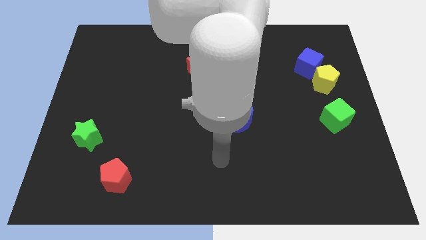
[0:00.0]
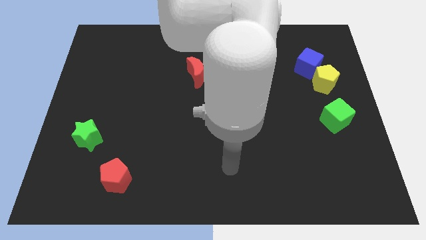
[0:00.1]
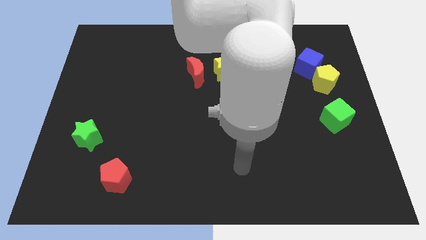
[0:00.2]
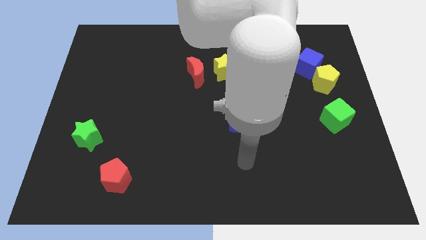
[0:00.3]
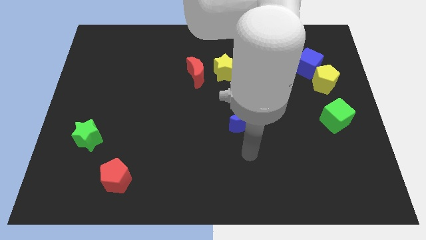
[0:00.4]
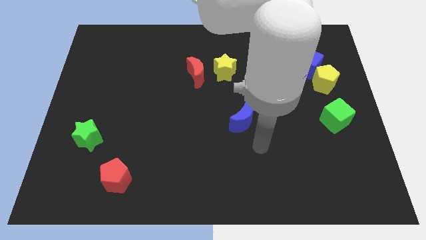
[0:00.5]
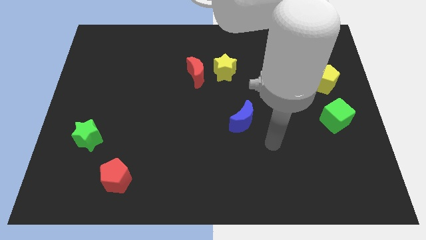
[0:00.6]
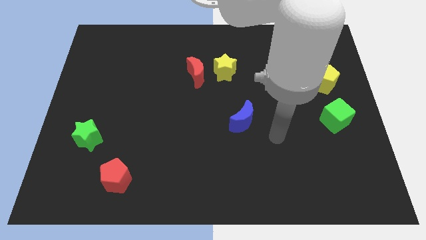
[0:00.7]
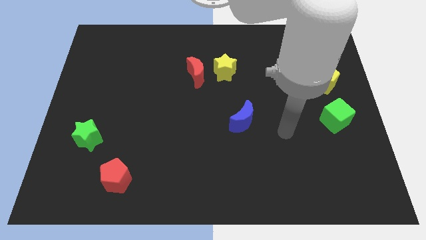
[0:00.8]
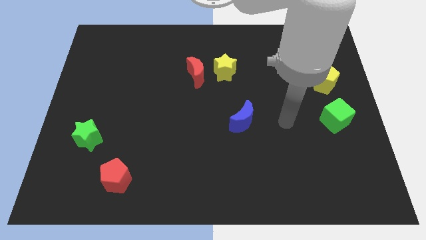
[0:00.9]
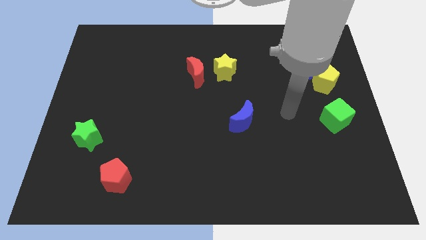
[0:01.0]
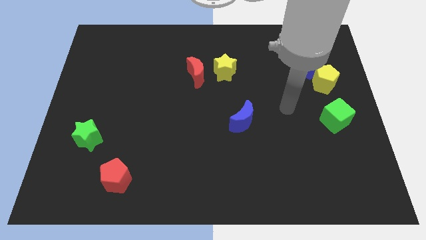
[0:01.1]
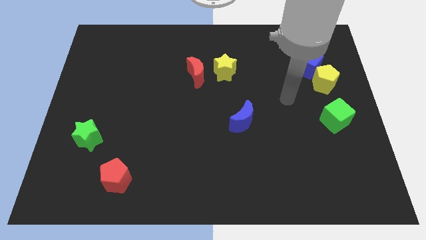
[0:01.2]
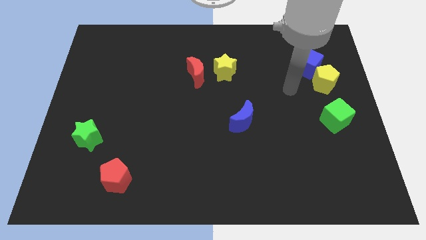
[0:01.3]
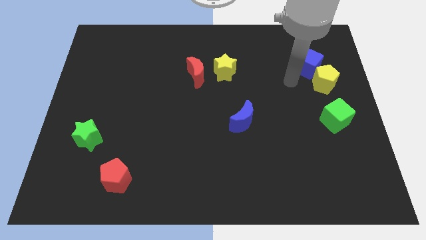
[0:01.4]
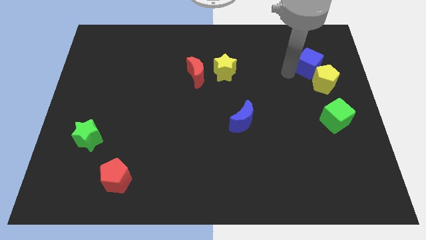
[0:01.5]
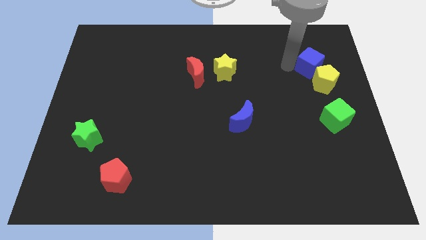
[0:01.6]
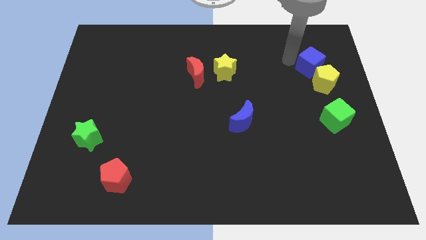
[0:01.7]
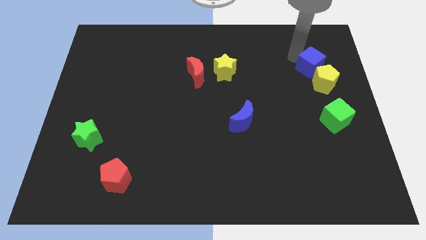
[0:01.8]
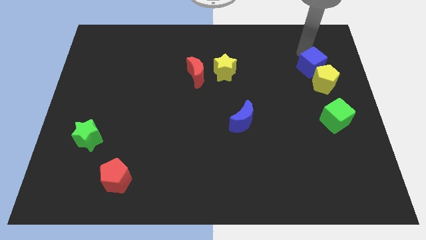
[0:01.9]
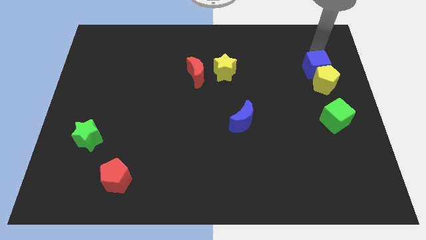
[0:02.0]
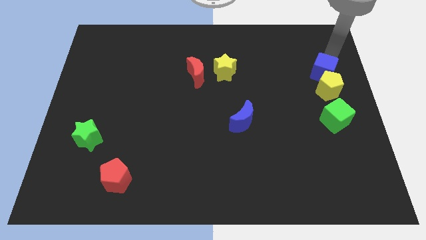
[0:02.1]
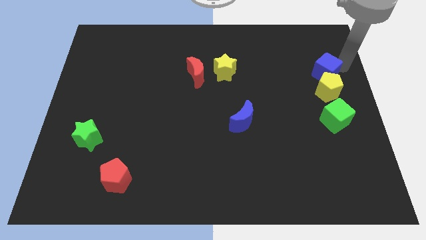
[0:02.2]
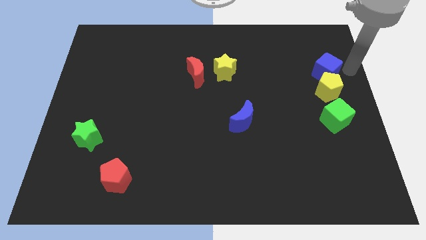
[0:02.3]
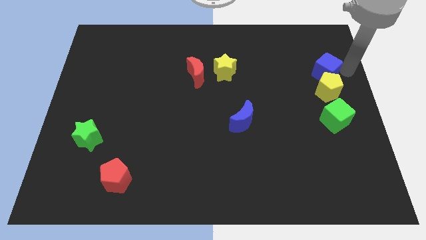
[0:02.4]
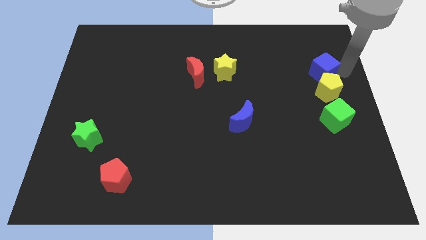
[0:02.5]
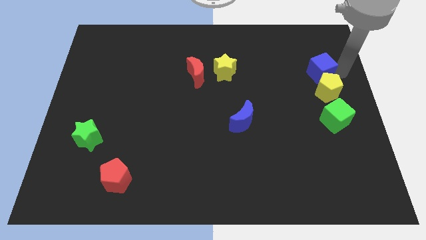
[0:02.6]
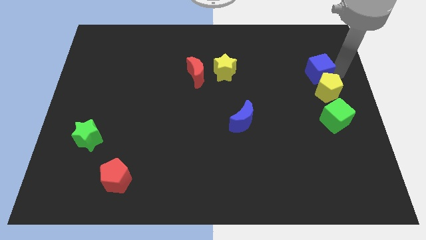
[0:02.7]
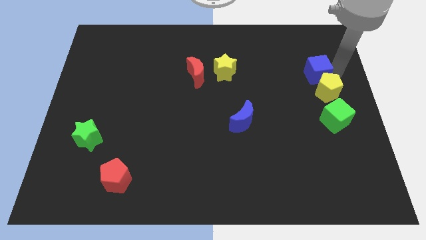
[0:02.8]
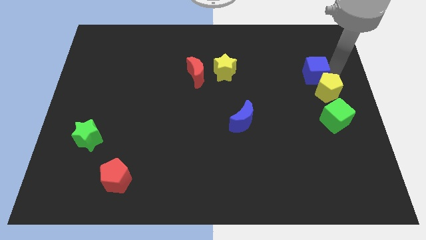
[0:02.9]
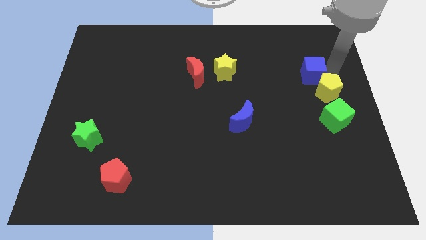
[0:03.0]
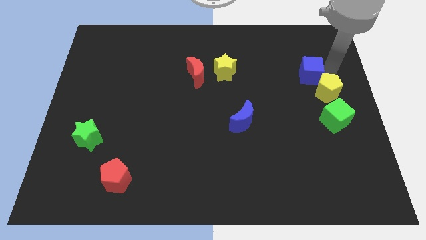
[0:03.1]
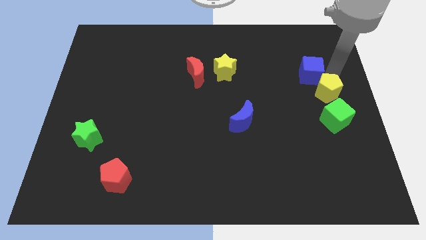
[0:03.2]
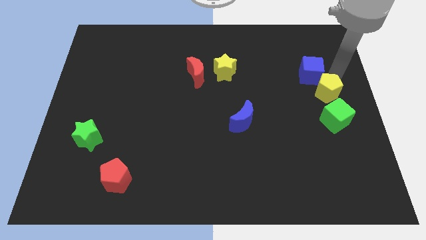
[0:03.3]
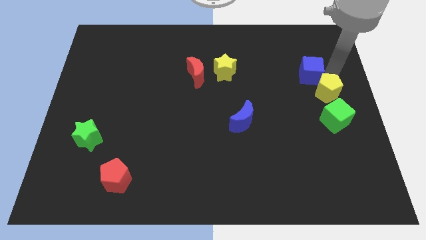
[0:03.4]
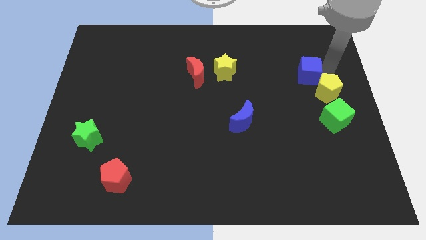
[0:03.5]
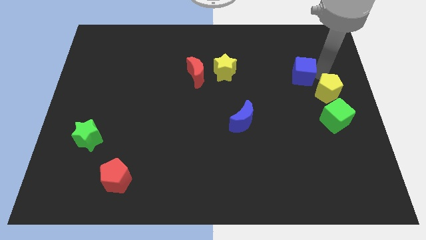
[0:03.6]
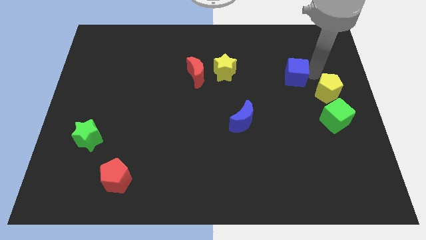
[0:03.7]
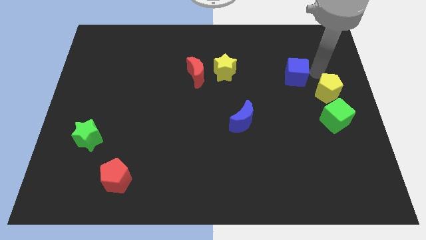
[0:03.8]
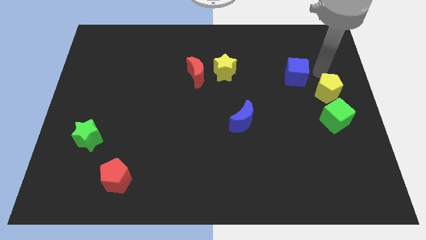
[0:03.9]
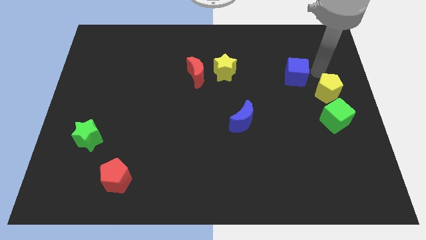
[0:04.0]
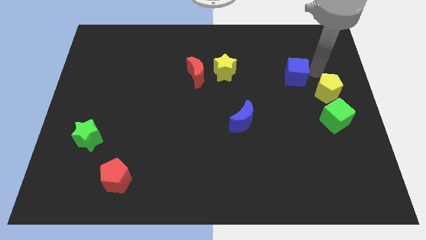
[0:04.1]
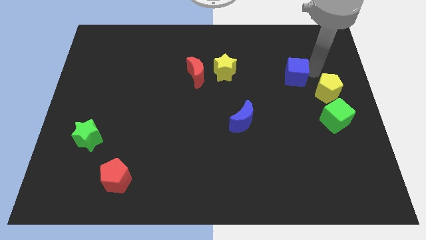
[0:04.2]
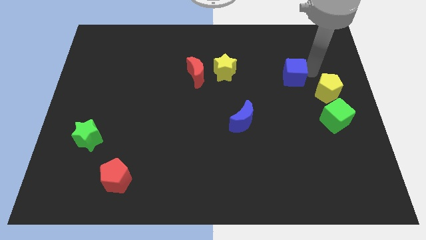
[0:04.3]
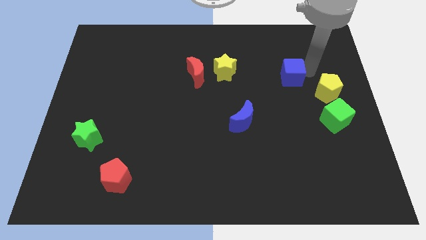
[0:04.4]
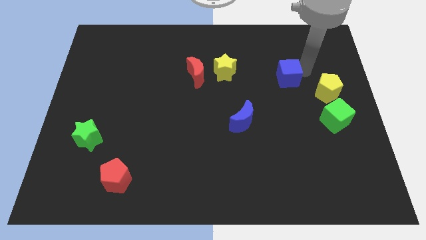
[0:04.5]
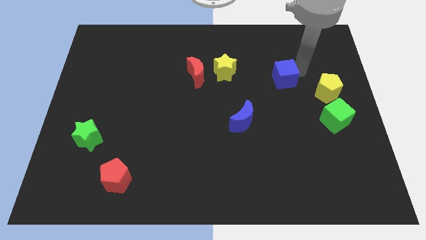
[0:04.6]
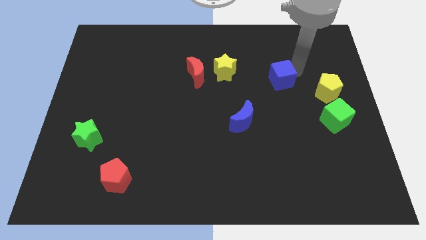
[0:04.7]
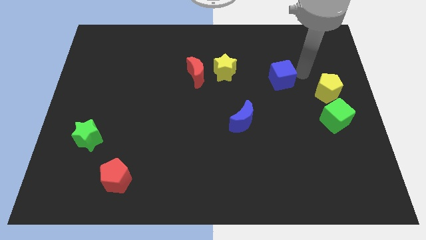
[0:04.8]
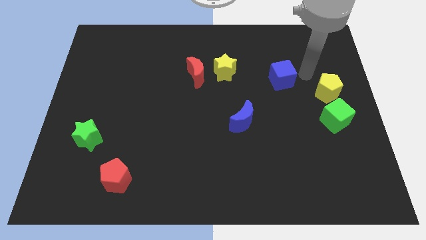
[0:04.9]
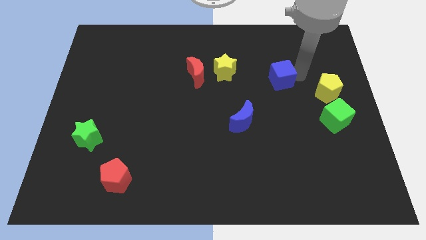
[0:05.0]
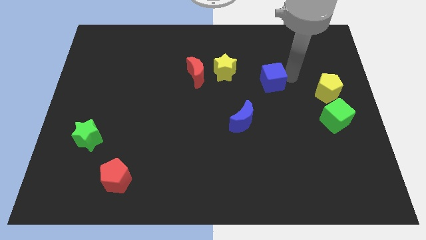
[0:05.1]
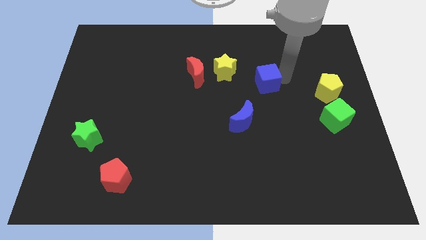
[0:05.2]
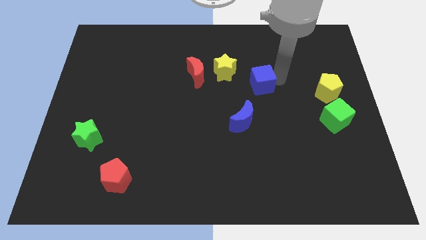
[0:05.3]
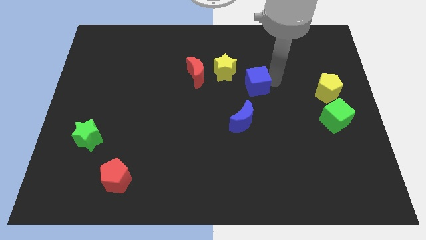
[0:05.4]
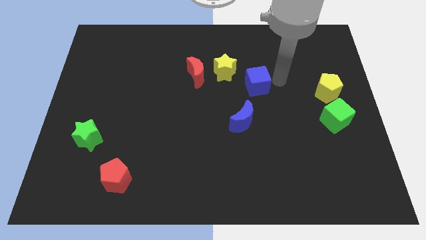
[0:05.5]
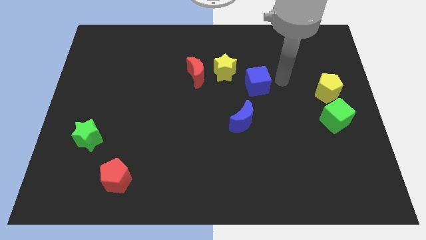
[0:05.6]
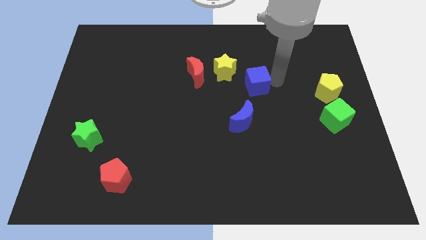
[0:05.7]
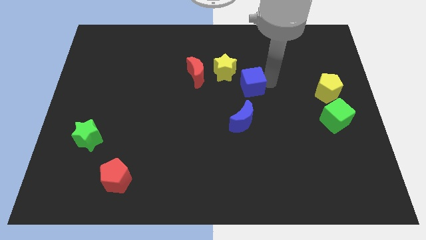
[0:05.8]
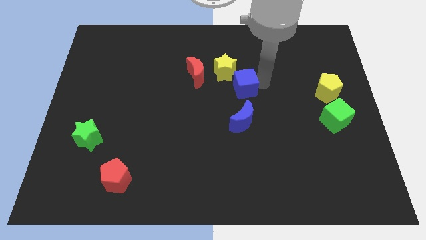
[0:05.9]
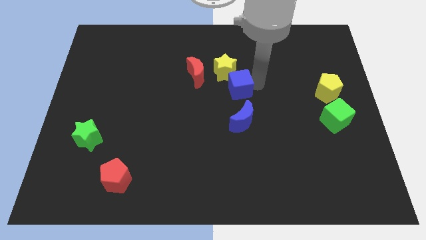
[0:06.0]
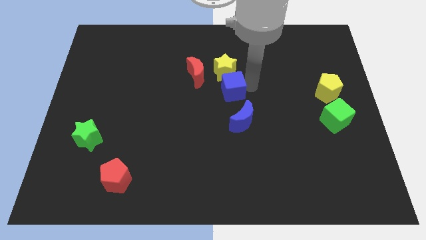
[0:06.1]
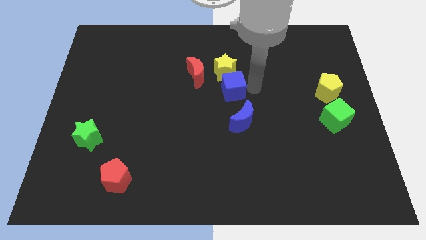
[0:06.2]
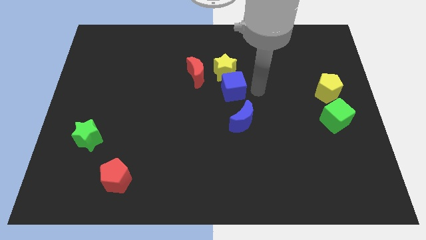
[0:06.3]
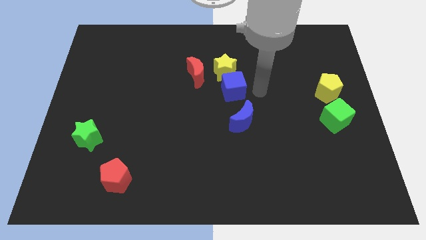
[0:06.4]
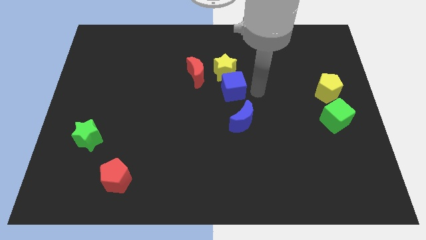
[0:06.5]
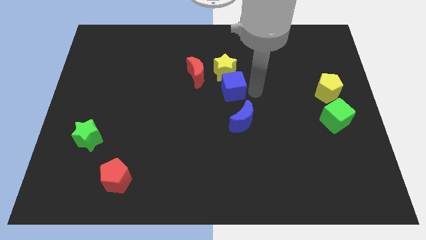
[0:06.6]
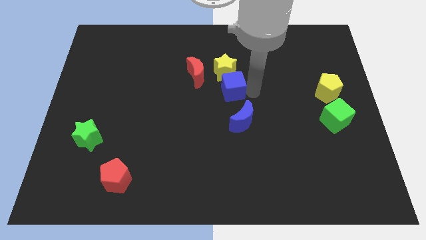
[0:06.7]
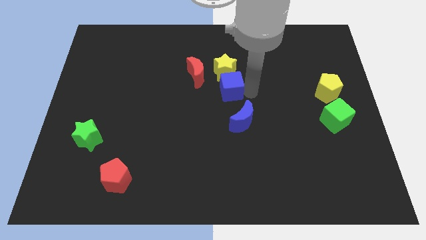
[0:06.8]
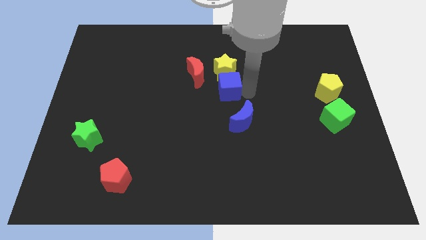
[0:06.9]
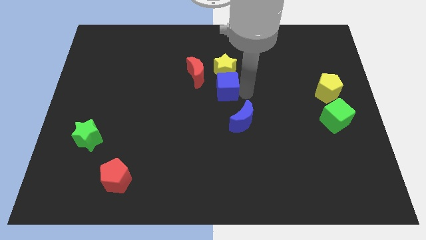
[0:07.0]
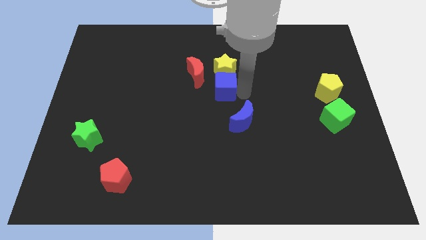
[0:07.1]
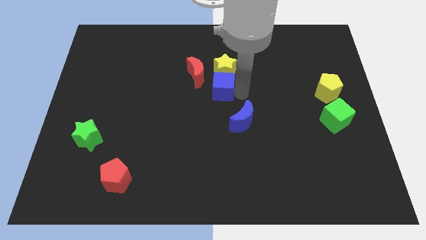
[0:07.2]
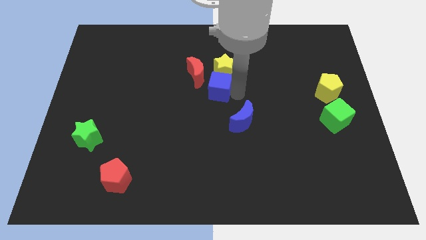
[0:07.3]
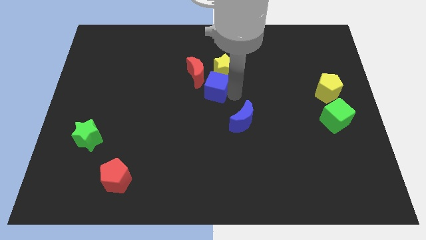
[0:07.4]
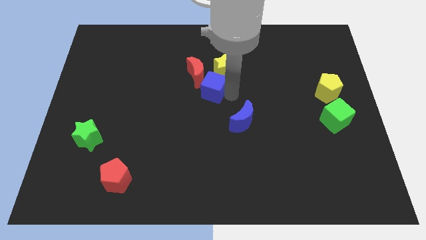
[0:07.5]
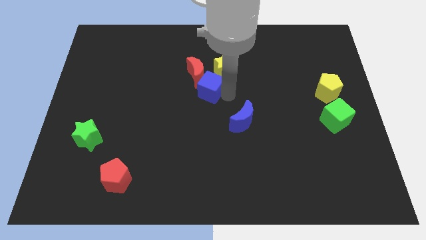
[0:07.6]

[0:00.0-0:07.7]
put the blue cube close to the red moon
